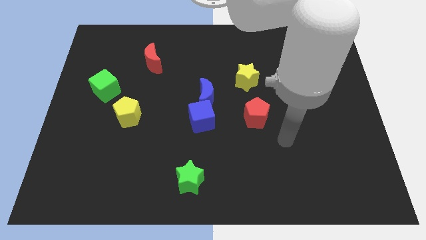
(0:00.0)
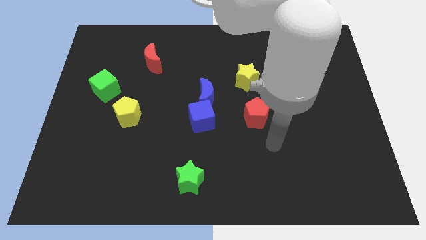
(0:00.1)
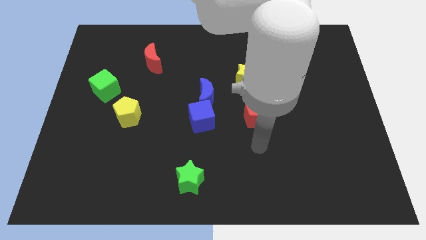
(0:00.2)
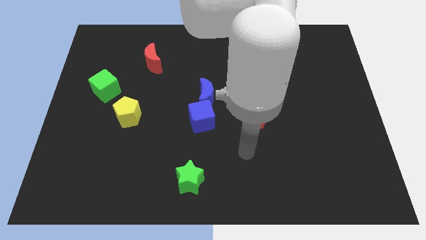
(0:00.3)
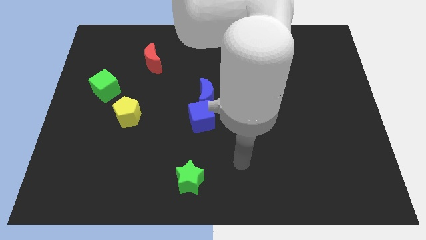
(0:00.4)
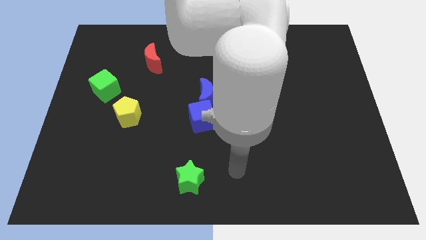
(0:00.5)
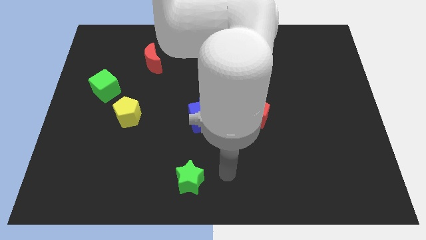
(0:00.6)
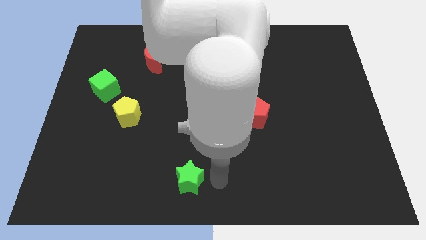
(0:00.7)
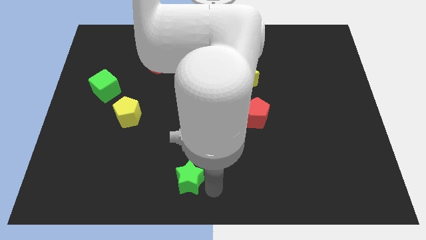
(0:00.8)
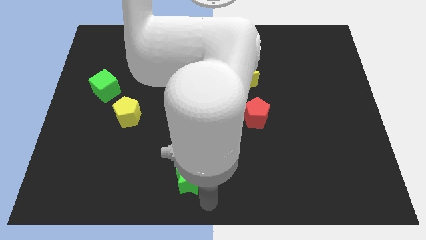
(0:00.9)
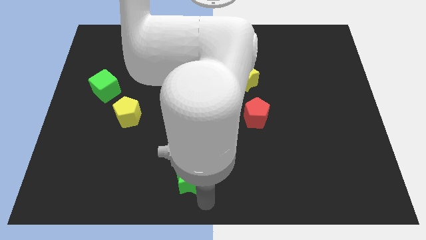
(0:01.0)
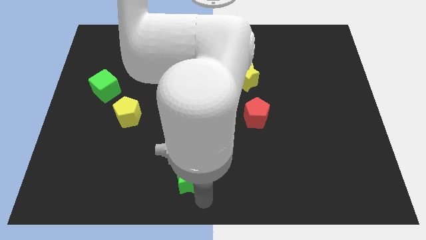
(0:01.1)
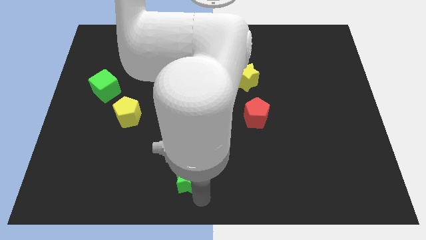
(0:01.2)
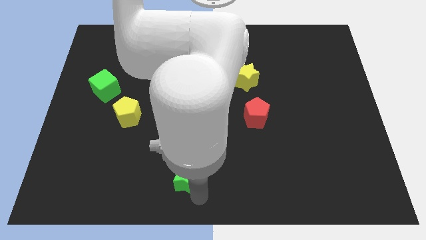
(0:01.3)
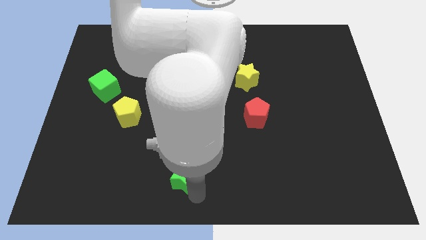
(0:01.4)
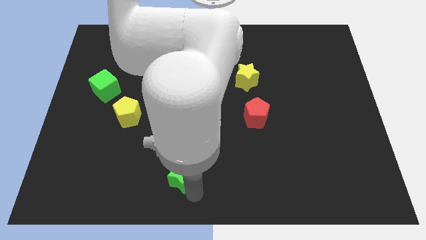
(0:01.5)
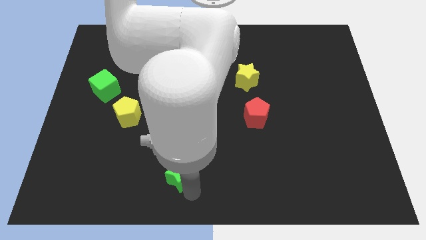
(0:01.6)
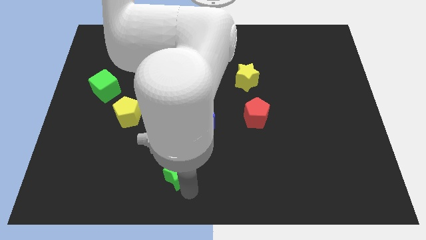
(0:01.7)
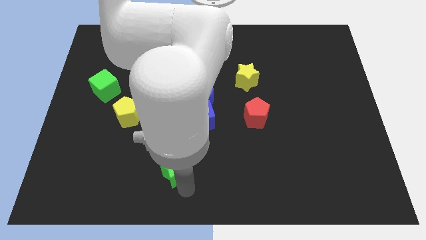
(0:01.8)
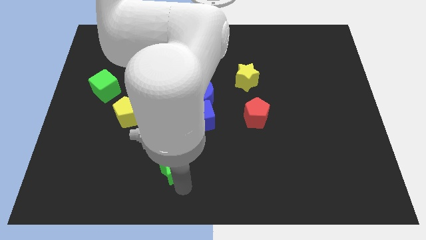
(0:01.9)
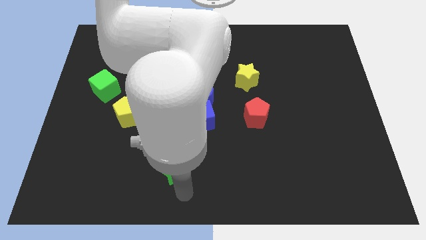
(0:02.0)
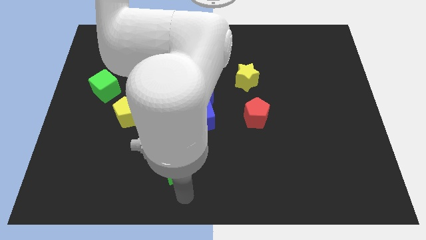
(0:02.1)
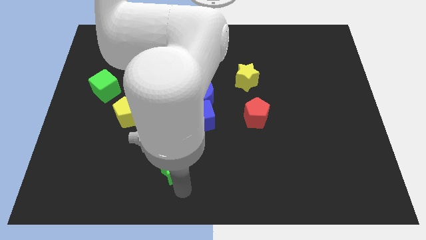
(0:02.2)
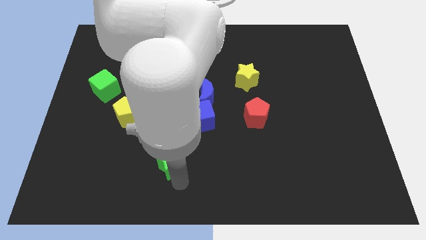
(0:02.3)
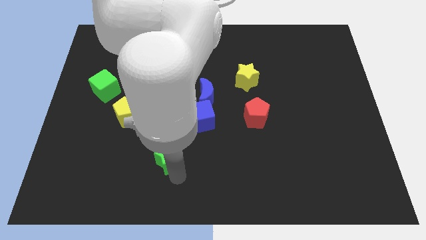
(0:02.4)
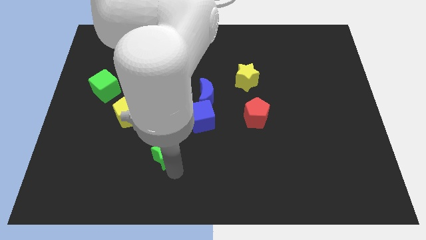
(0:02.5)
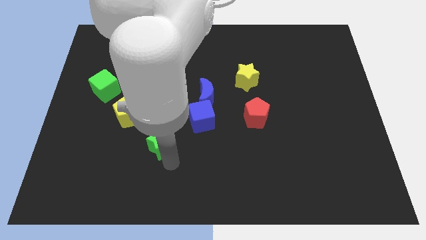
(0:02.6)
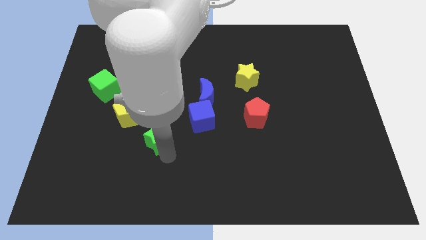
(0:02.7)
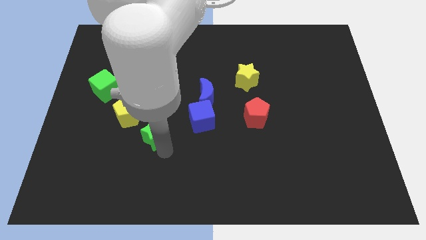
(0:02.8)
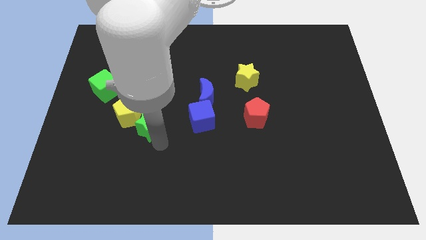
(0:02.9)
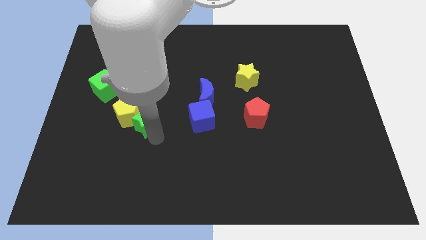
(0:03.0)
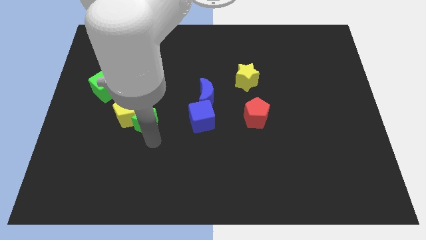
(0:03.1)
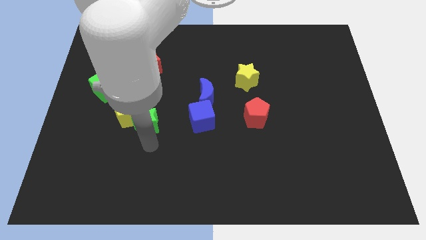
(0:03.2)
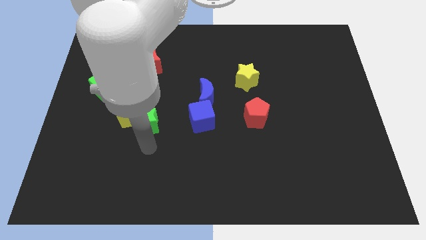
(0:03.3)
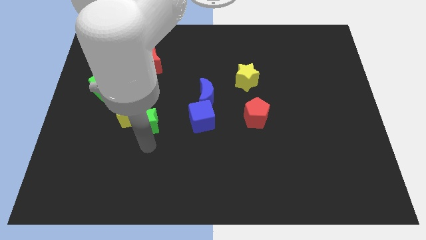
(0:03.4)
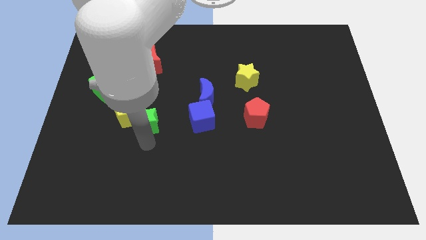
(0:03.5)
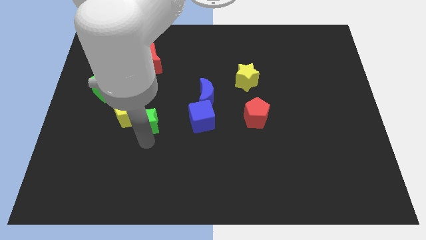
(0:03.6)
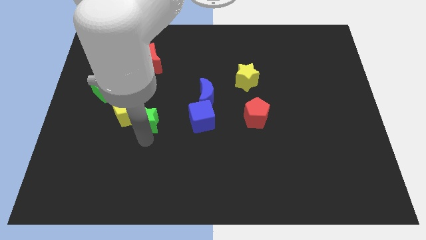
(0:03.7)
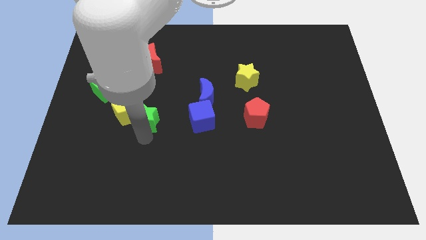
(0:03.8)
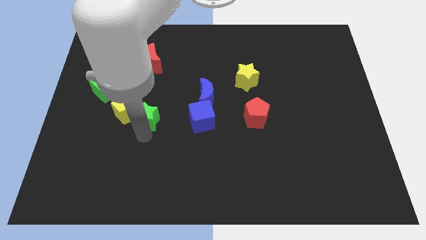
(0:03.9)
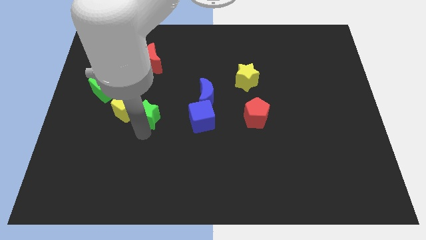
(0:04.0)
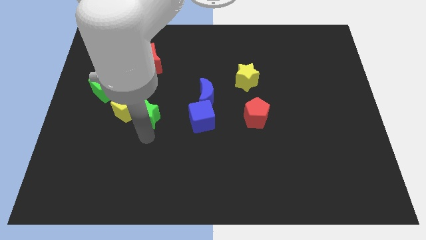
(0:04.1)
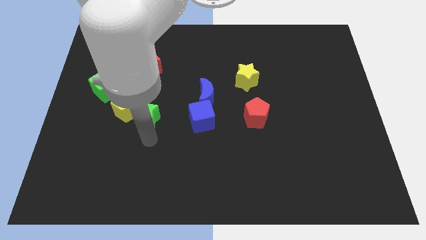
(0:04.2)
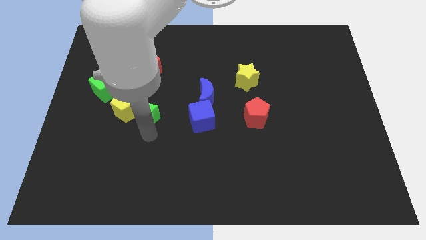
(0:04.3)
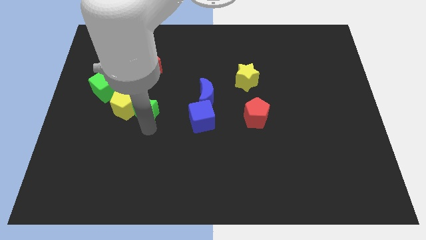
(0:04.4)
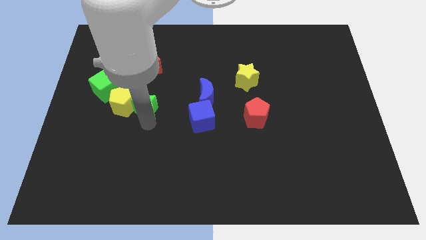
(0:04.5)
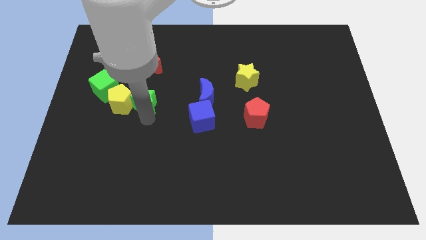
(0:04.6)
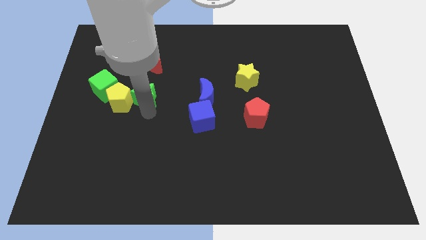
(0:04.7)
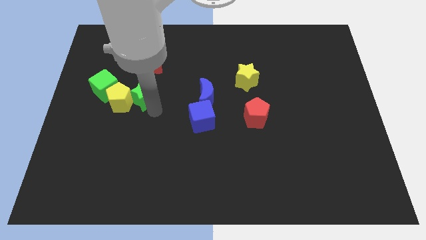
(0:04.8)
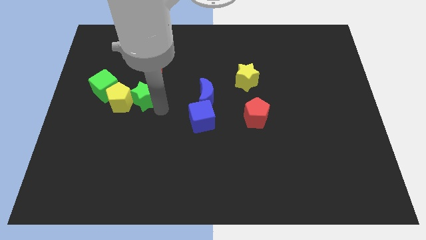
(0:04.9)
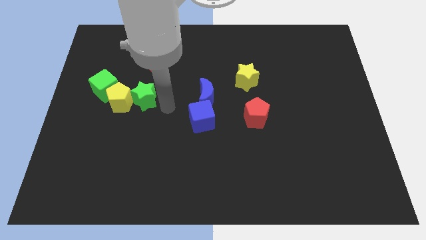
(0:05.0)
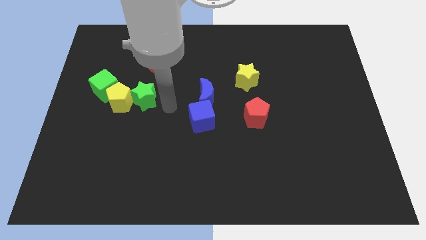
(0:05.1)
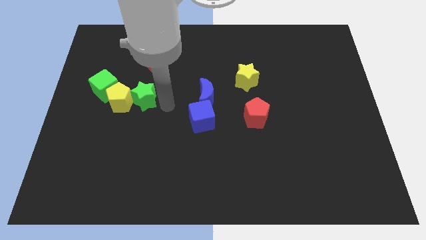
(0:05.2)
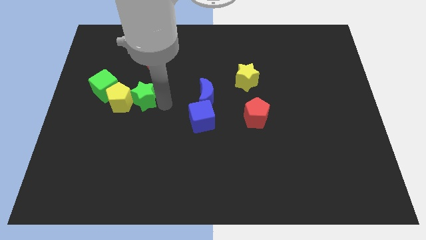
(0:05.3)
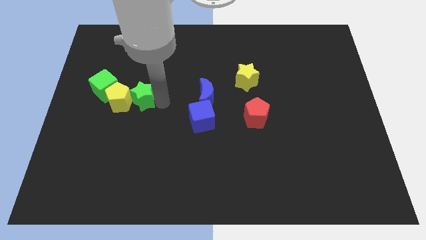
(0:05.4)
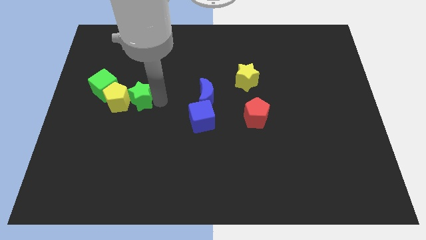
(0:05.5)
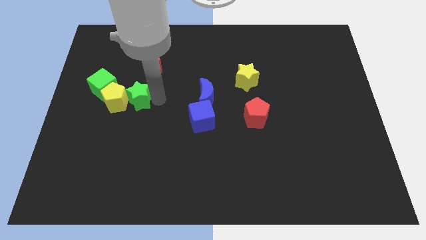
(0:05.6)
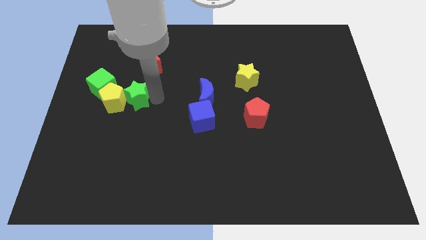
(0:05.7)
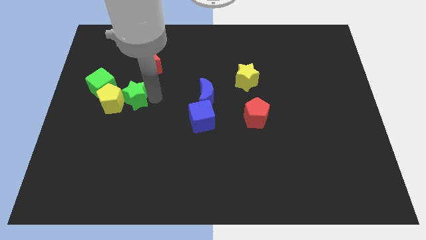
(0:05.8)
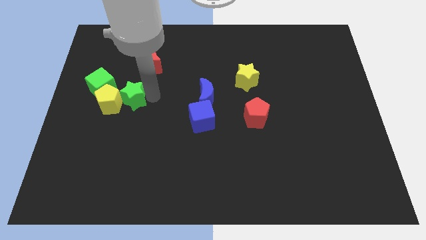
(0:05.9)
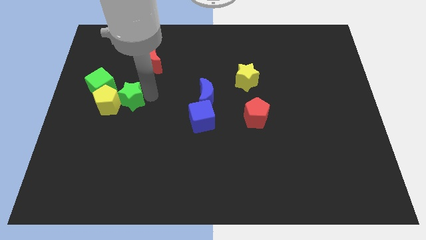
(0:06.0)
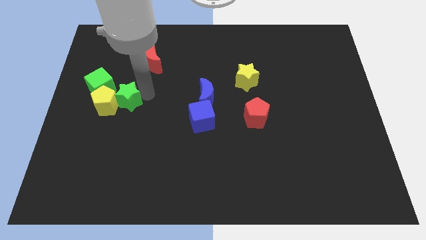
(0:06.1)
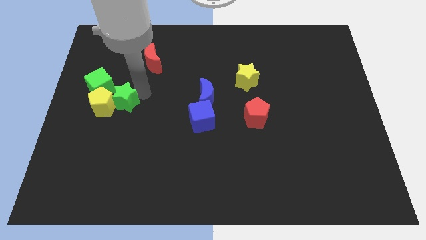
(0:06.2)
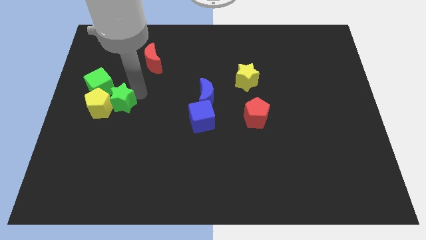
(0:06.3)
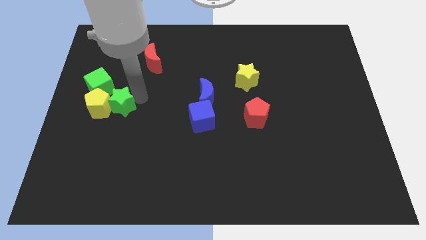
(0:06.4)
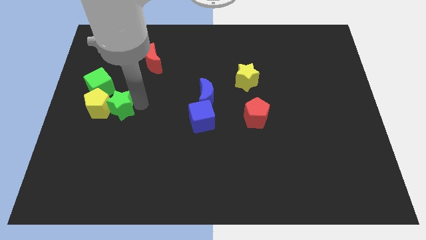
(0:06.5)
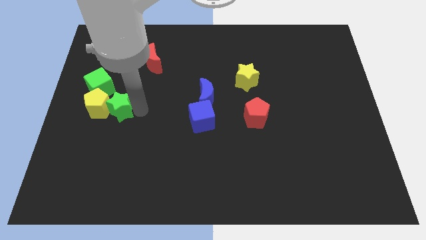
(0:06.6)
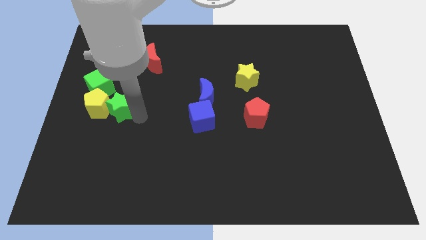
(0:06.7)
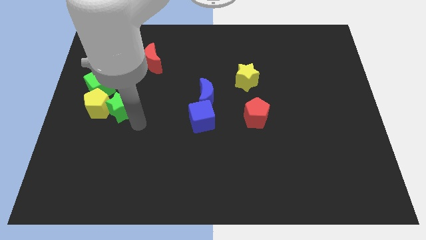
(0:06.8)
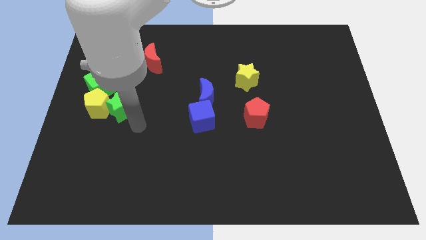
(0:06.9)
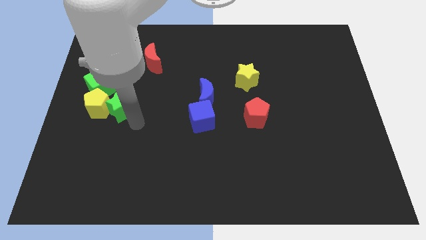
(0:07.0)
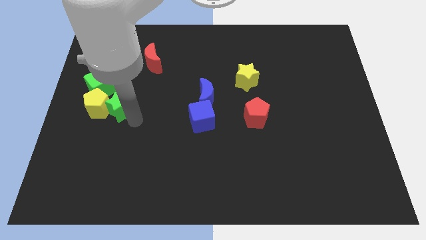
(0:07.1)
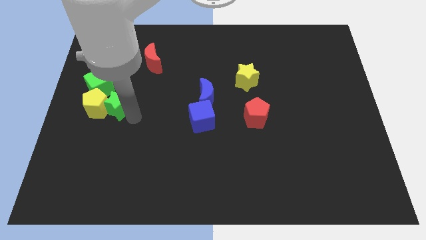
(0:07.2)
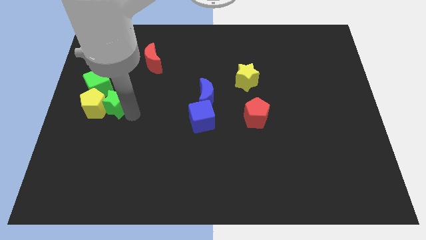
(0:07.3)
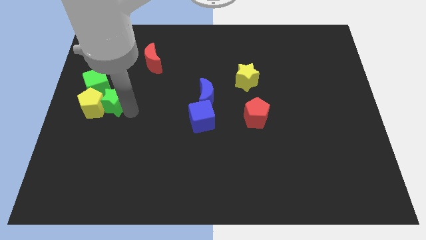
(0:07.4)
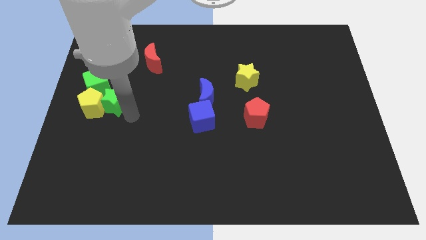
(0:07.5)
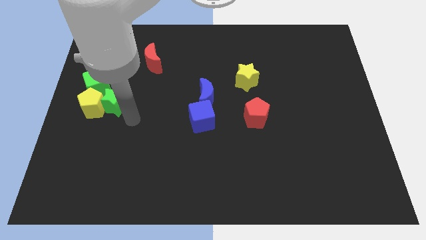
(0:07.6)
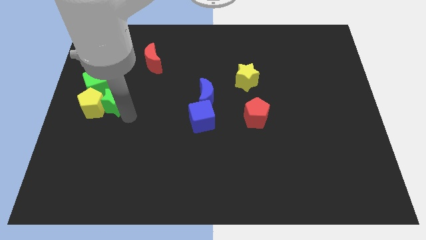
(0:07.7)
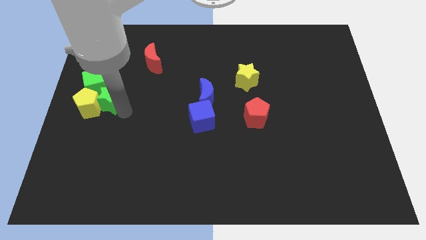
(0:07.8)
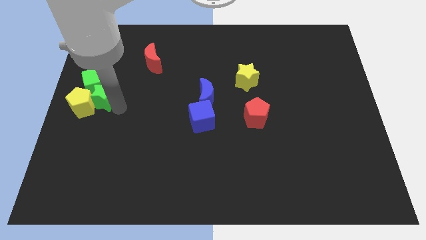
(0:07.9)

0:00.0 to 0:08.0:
slide the green star close to the green cube
